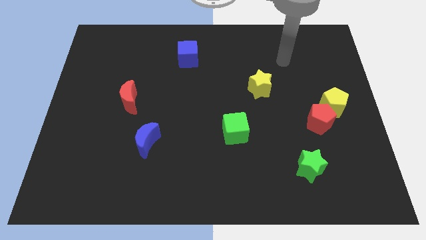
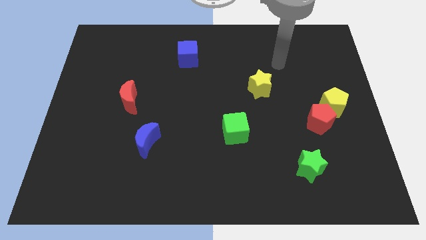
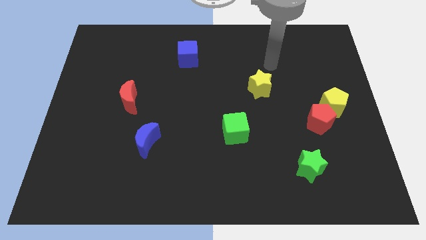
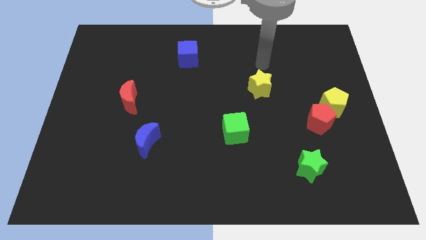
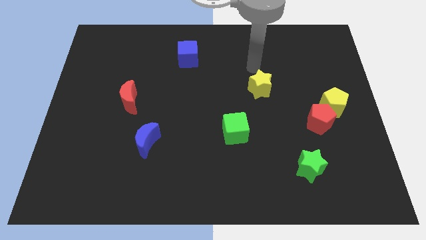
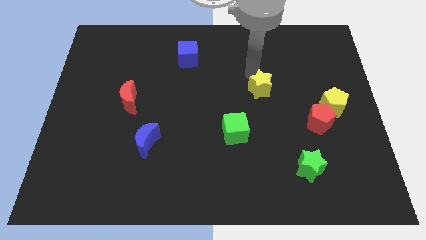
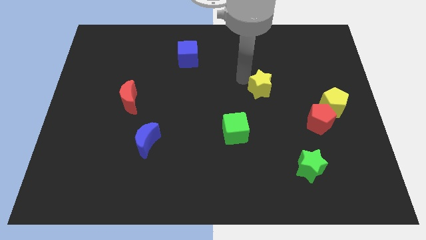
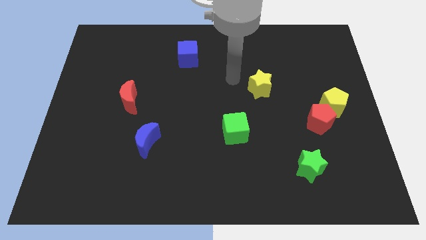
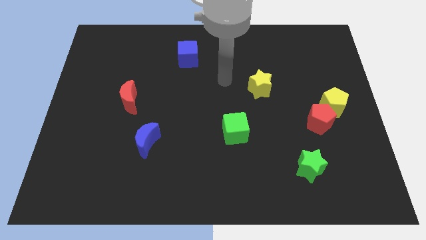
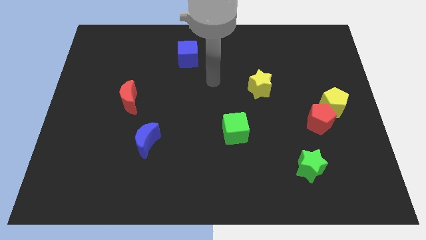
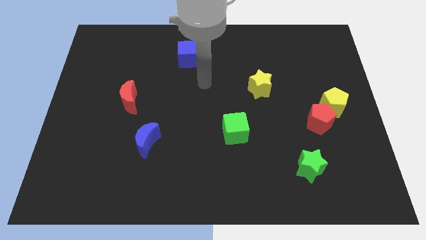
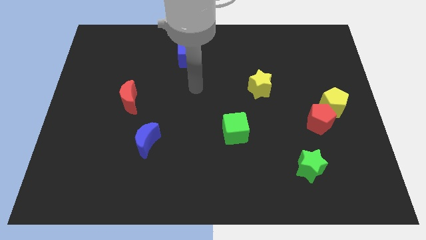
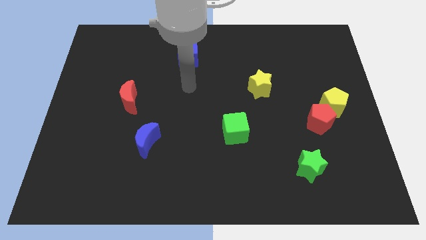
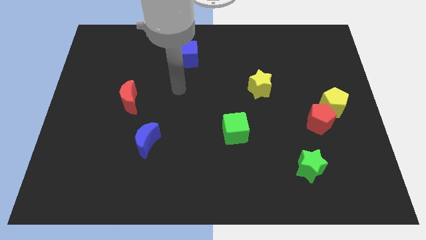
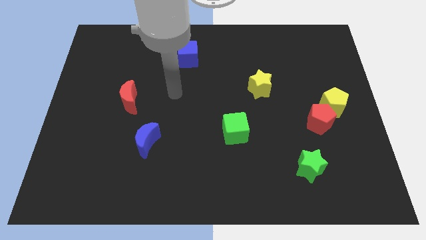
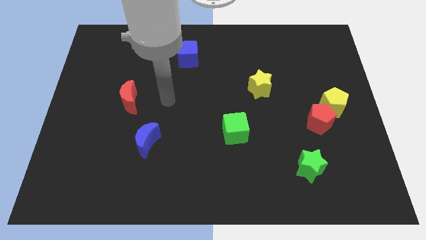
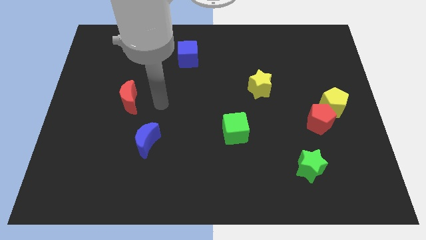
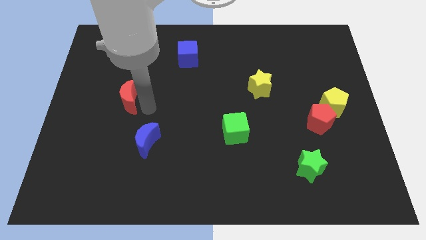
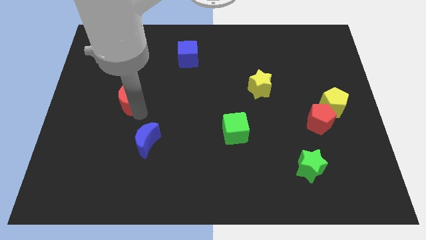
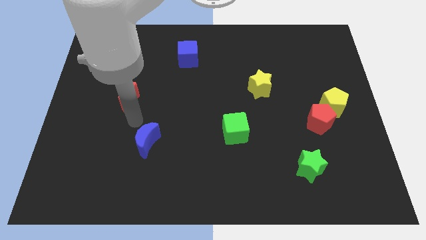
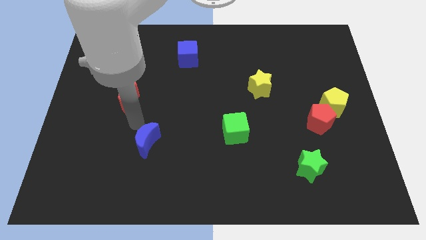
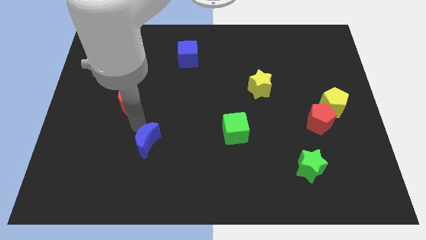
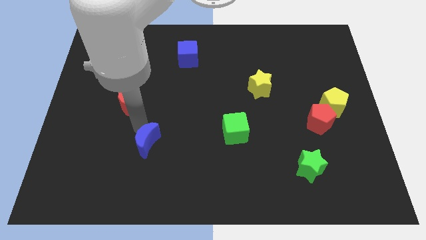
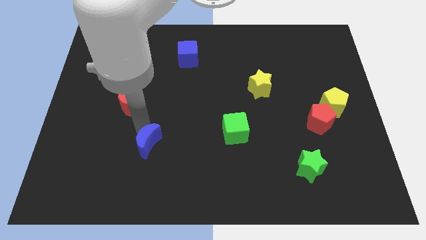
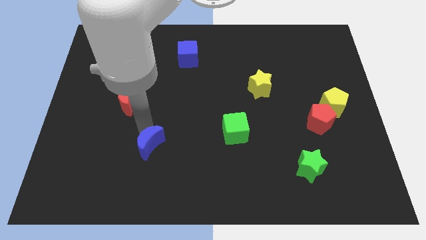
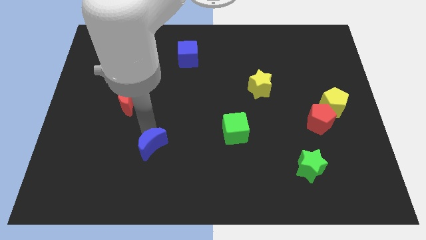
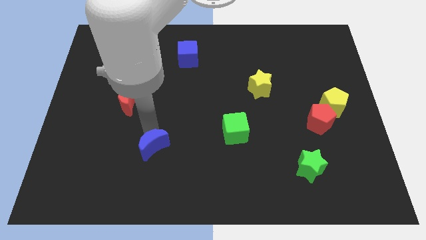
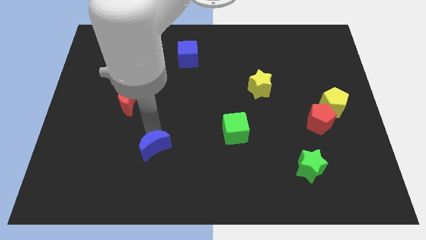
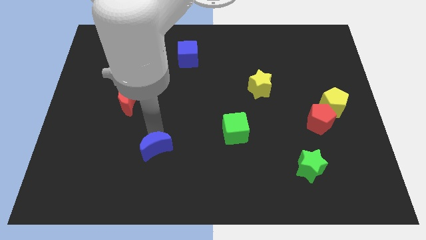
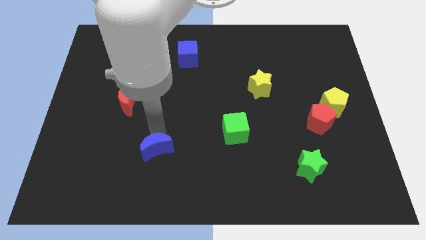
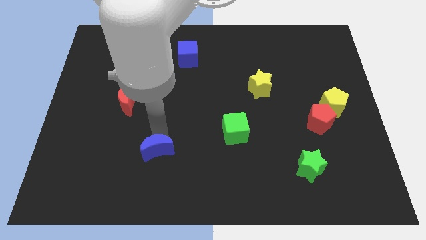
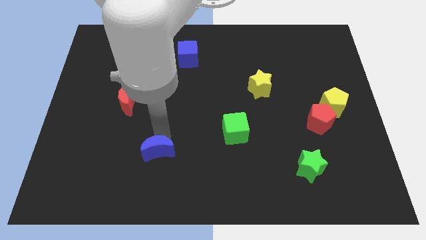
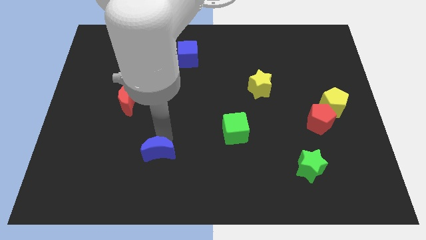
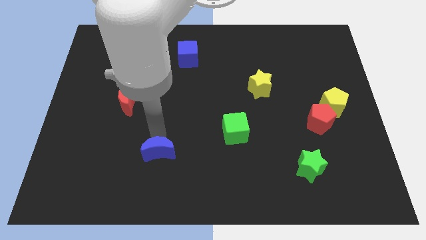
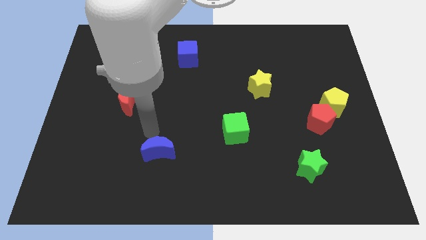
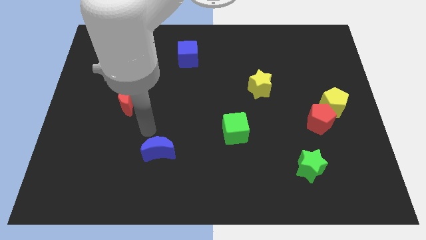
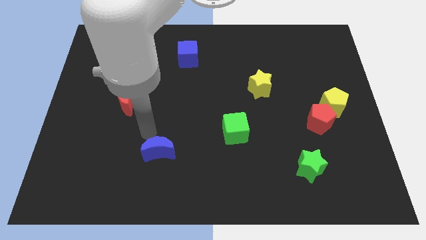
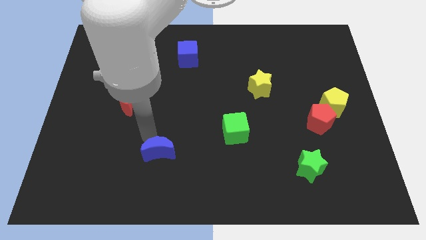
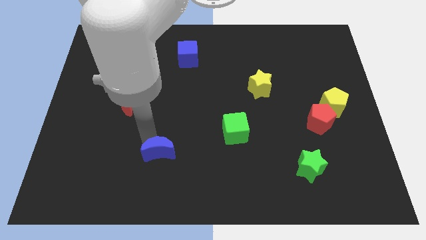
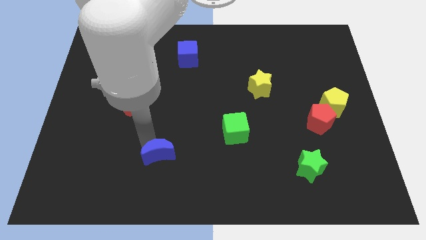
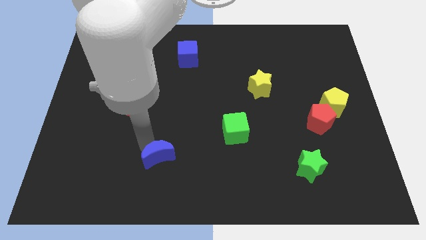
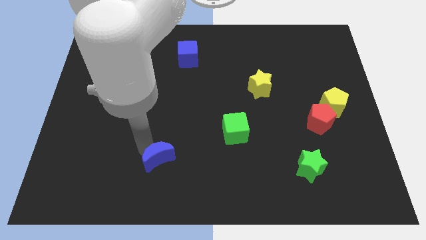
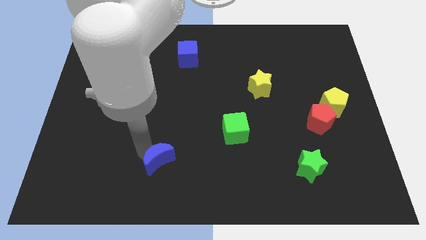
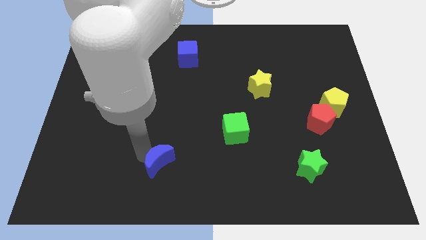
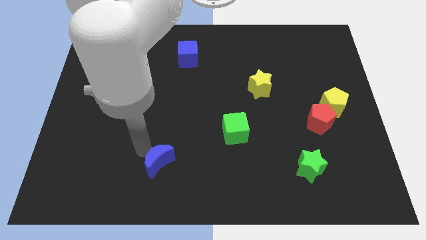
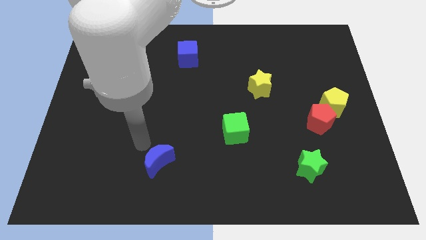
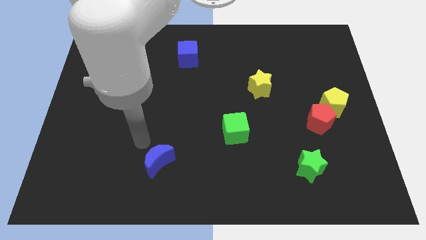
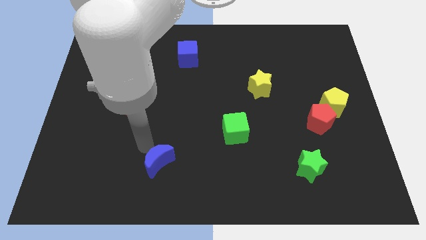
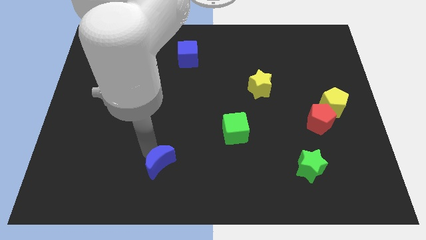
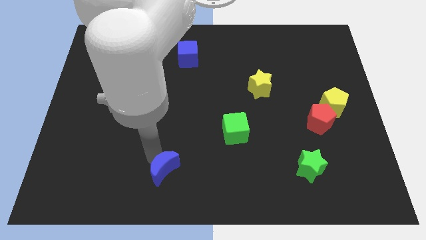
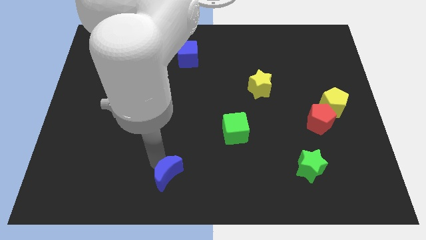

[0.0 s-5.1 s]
put the blue moon to the bottom

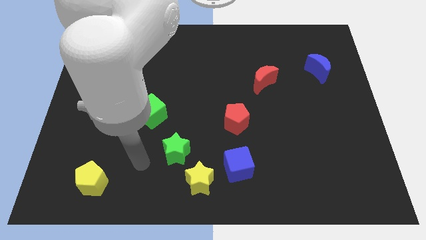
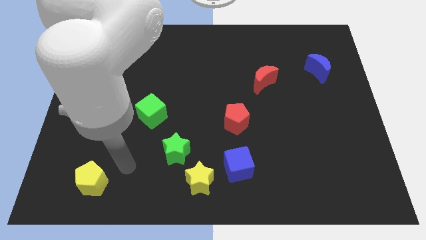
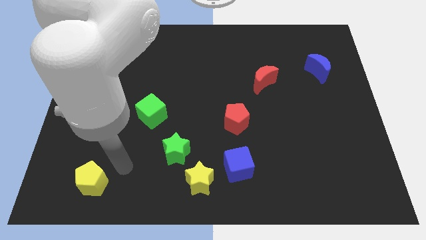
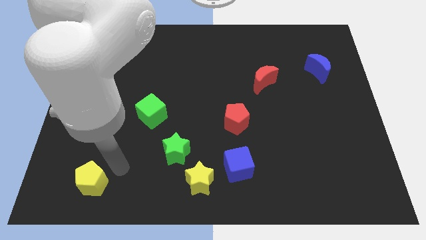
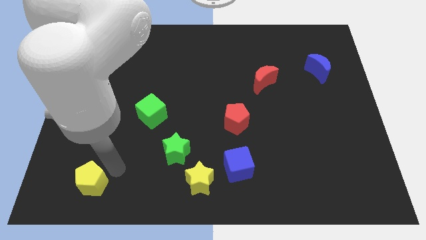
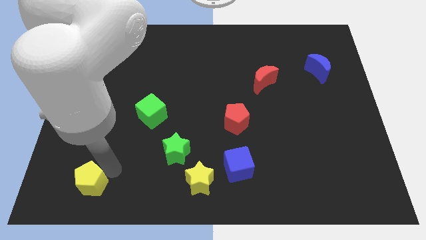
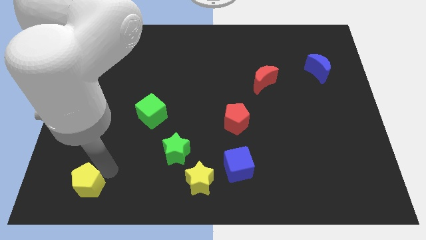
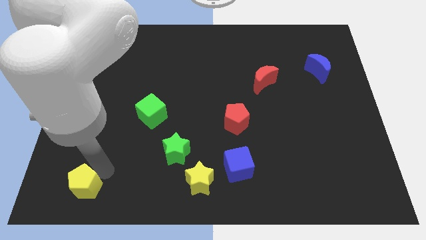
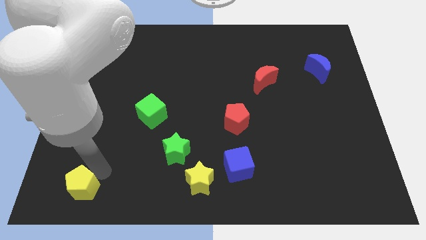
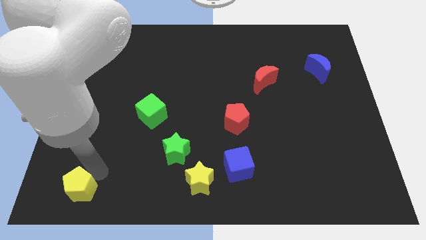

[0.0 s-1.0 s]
push the yellow pentagon to the bottom left corner
